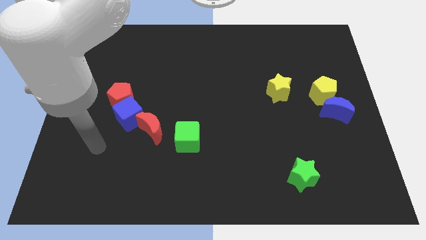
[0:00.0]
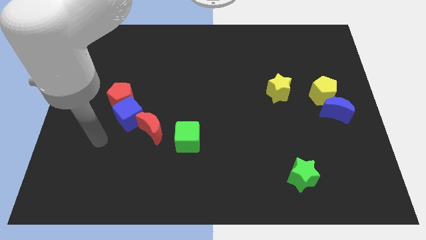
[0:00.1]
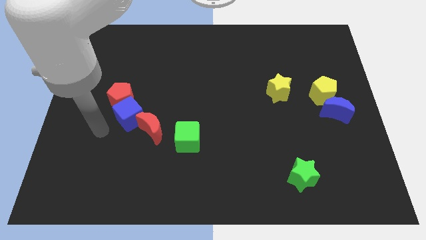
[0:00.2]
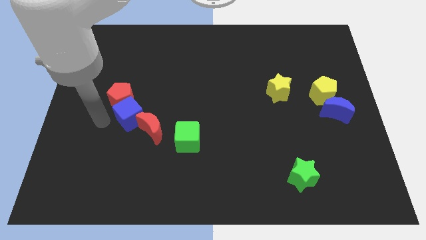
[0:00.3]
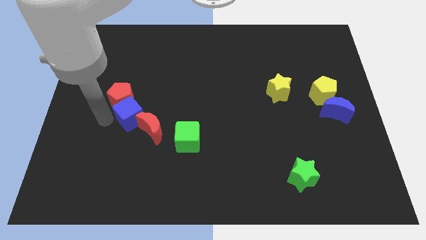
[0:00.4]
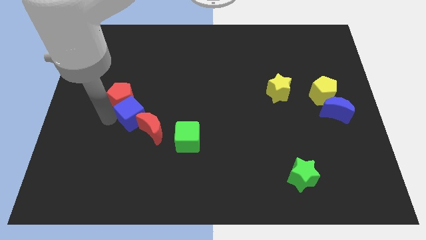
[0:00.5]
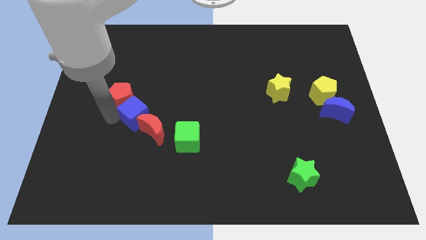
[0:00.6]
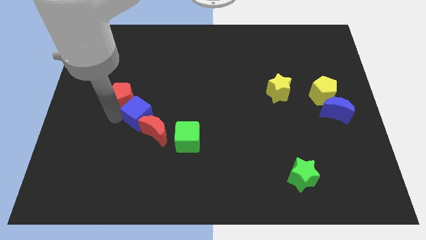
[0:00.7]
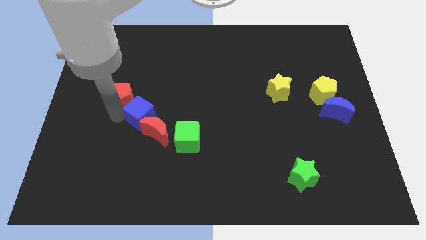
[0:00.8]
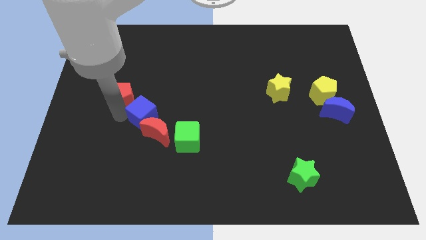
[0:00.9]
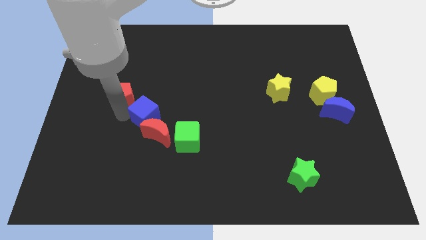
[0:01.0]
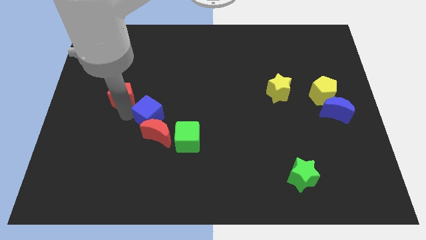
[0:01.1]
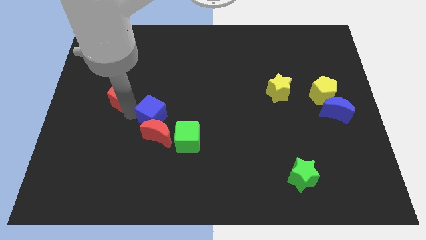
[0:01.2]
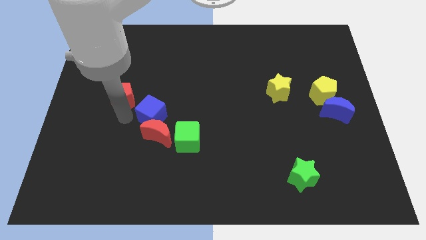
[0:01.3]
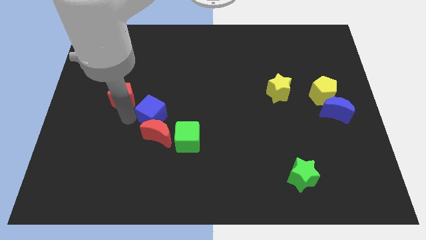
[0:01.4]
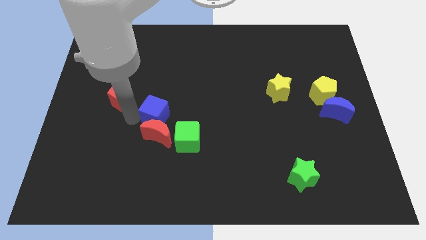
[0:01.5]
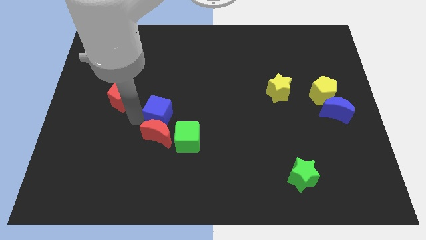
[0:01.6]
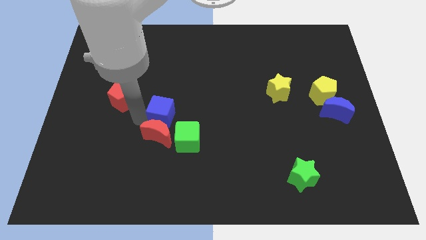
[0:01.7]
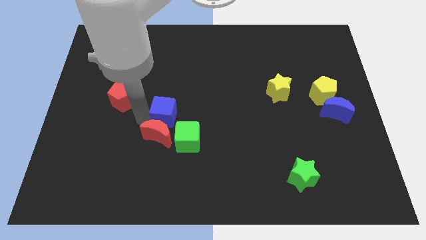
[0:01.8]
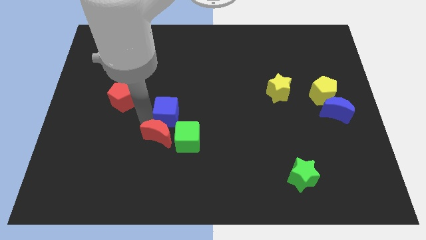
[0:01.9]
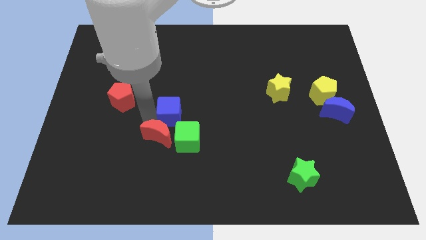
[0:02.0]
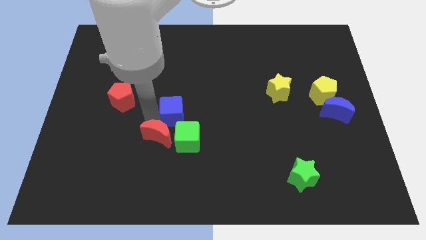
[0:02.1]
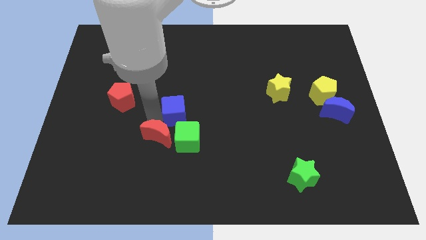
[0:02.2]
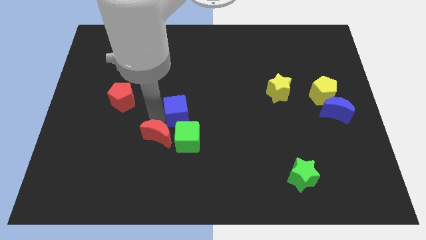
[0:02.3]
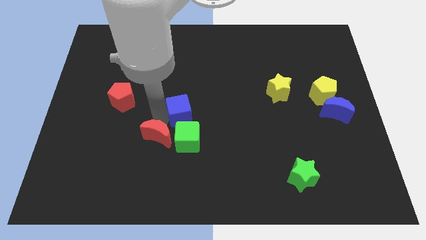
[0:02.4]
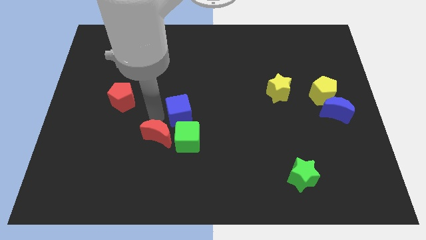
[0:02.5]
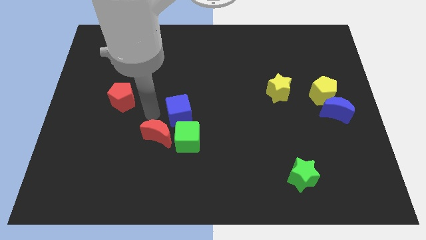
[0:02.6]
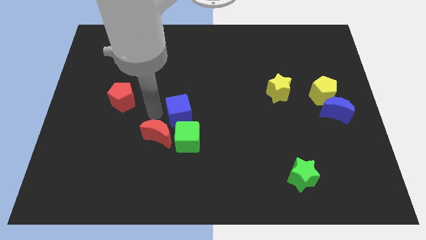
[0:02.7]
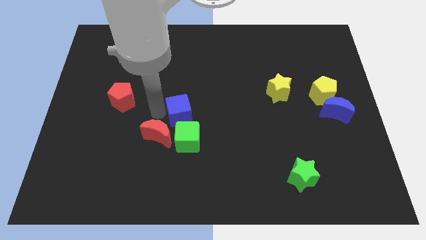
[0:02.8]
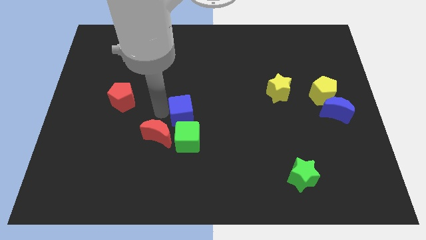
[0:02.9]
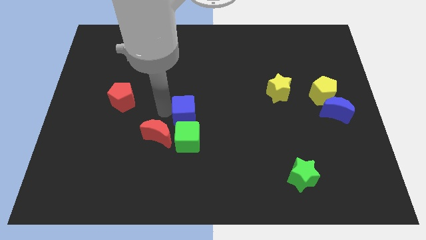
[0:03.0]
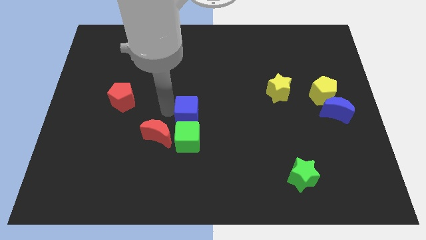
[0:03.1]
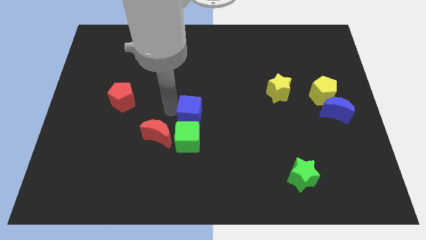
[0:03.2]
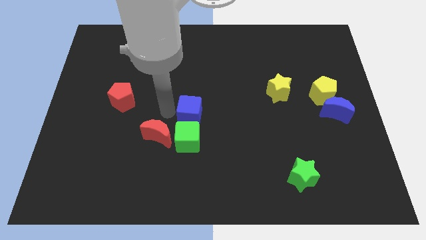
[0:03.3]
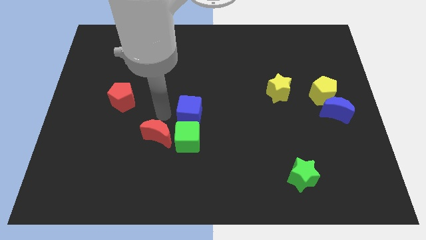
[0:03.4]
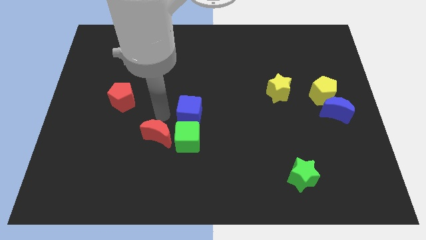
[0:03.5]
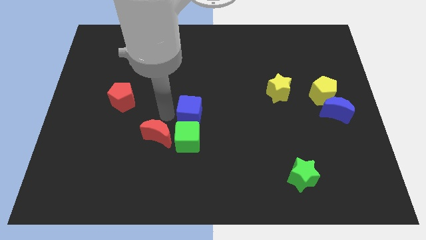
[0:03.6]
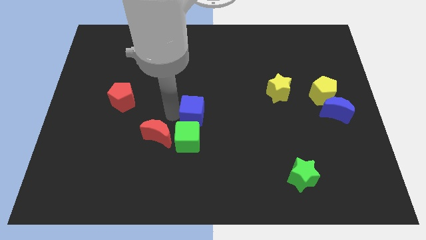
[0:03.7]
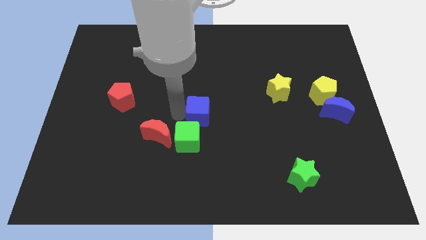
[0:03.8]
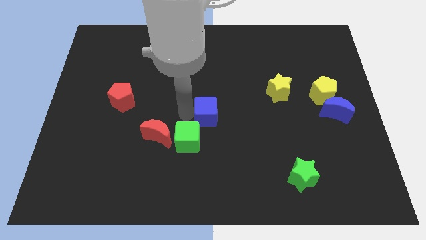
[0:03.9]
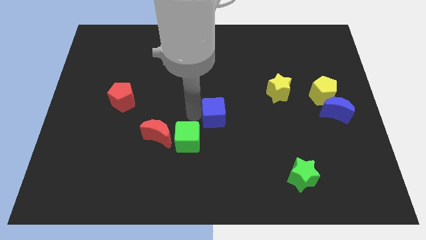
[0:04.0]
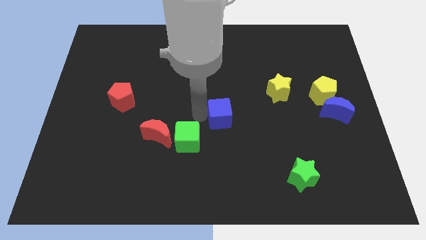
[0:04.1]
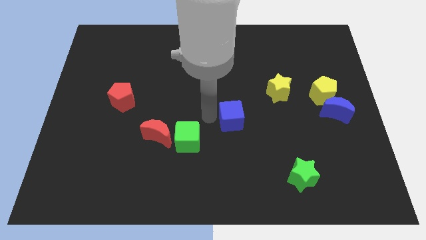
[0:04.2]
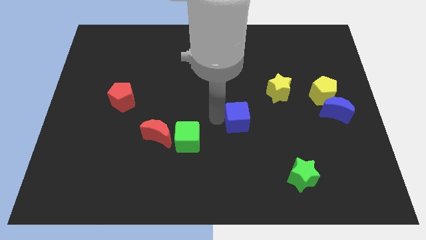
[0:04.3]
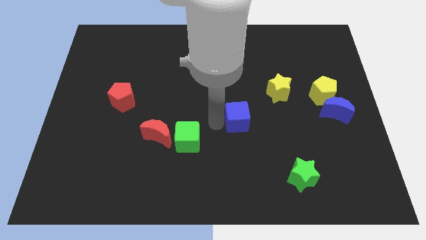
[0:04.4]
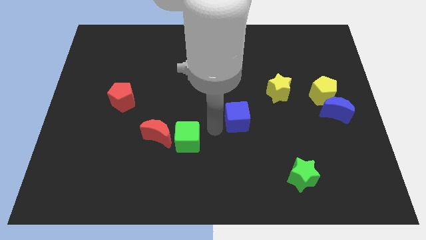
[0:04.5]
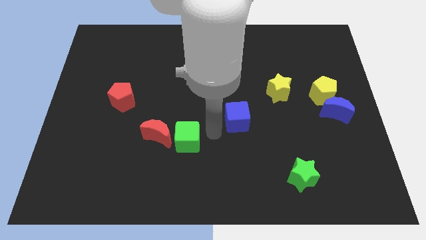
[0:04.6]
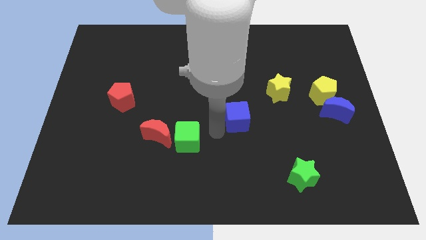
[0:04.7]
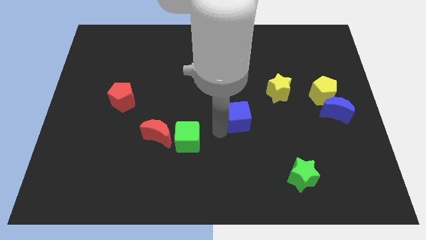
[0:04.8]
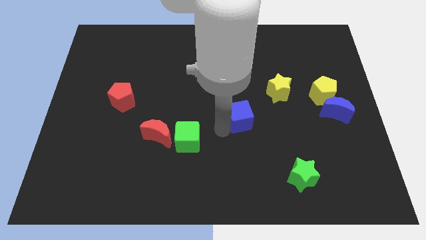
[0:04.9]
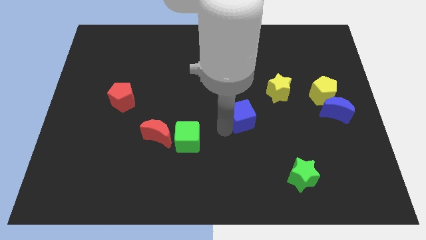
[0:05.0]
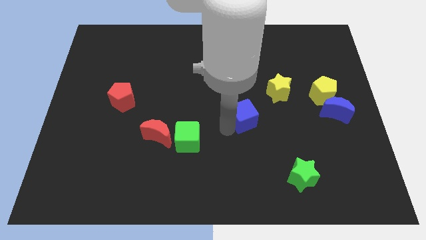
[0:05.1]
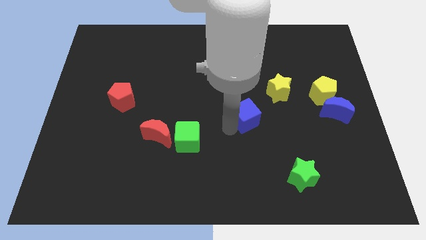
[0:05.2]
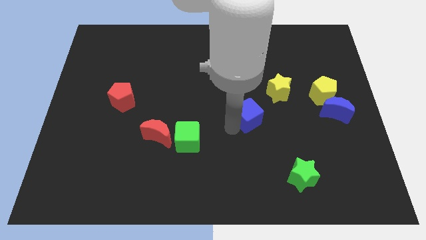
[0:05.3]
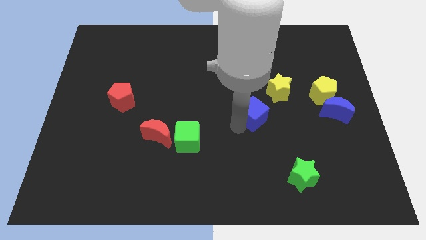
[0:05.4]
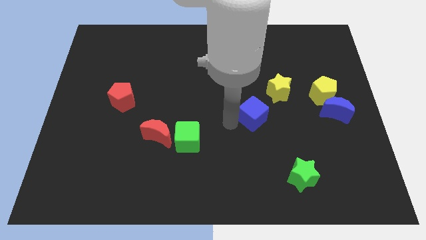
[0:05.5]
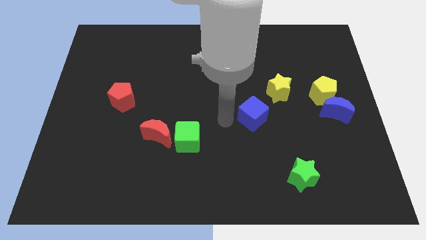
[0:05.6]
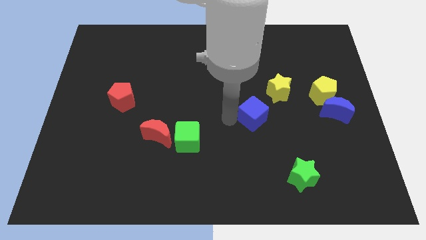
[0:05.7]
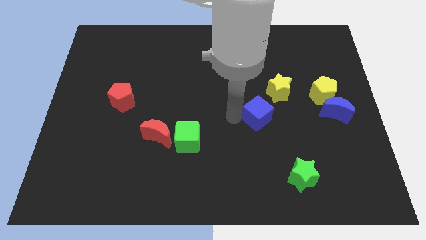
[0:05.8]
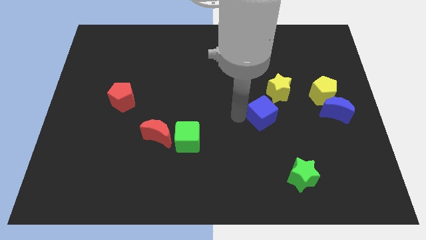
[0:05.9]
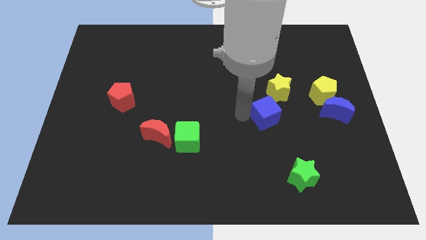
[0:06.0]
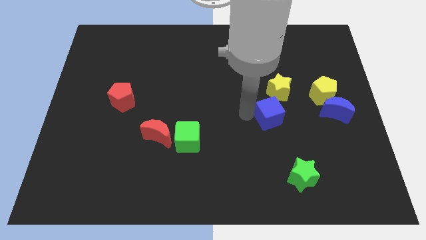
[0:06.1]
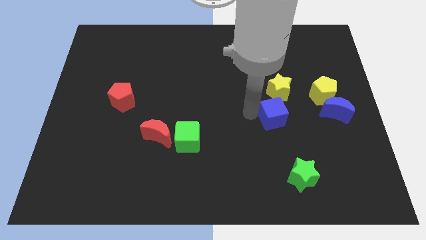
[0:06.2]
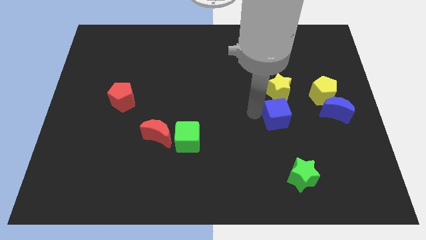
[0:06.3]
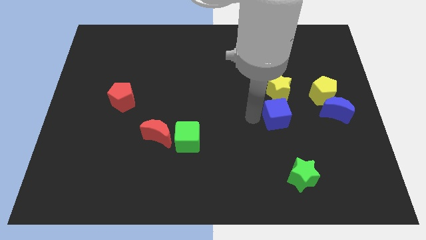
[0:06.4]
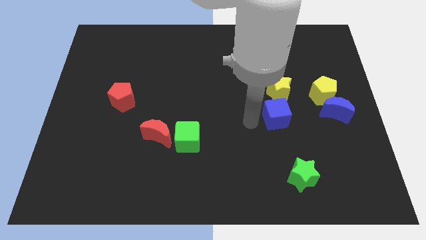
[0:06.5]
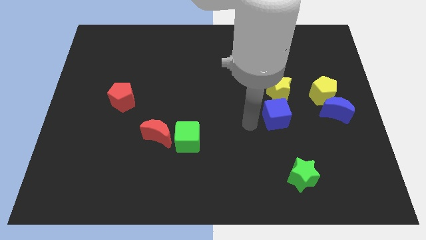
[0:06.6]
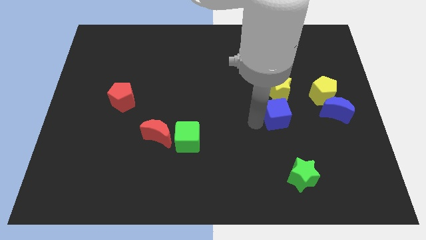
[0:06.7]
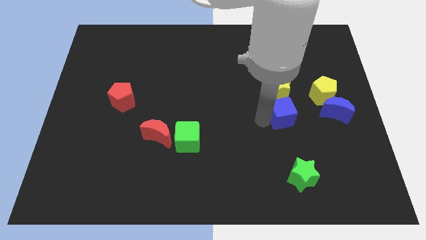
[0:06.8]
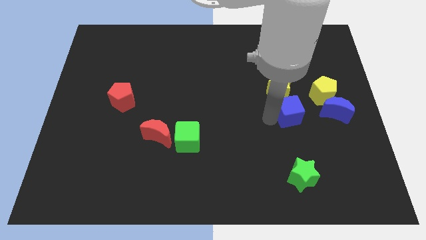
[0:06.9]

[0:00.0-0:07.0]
put the blue cube diagonally down and to the right of the yellow star

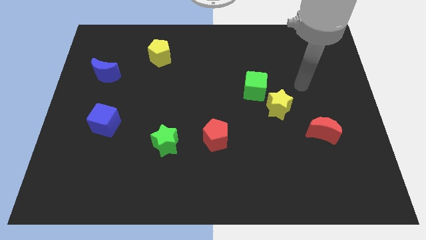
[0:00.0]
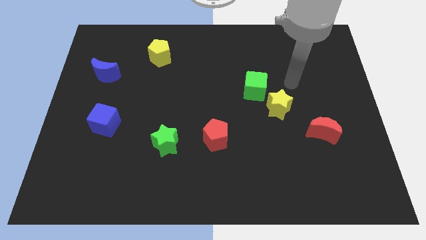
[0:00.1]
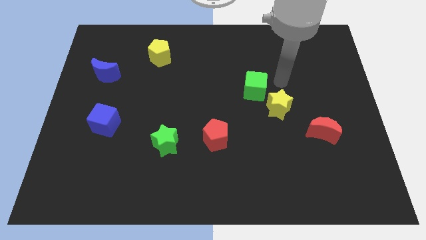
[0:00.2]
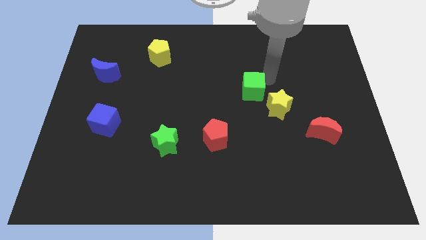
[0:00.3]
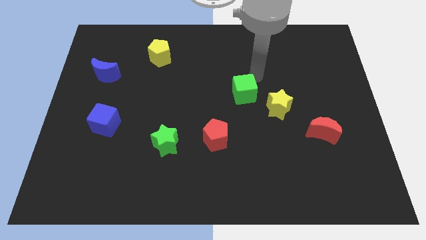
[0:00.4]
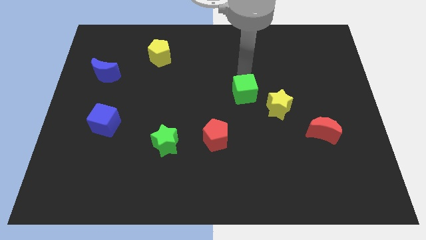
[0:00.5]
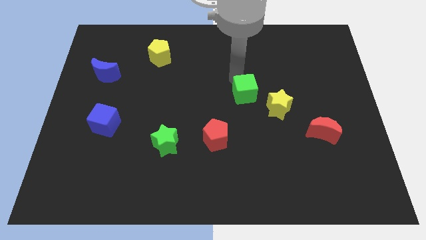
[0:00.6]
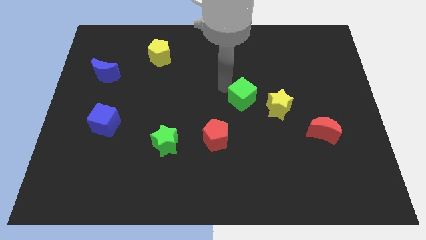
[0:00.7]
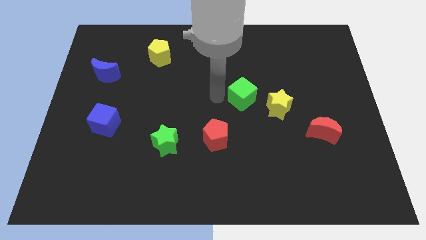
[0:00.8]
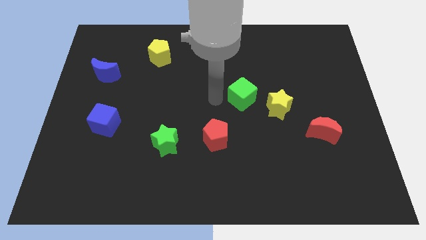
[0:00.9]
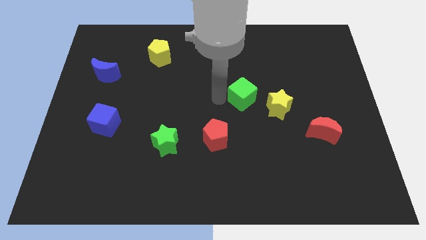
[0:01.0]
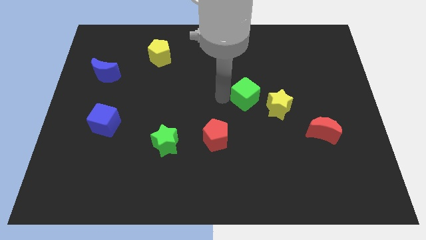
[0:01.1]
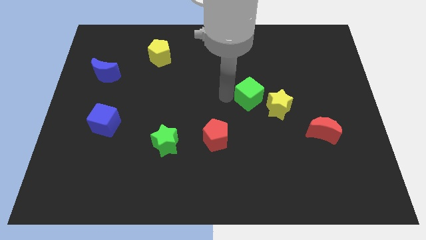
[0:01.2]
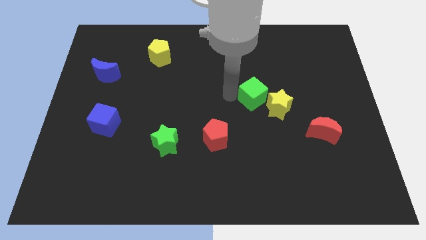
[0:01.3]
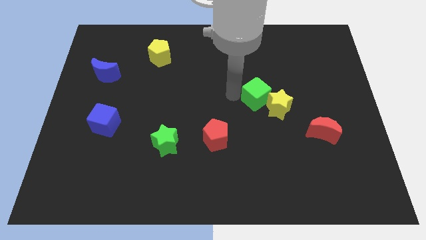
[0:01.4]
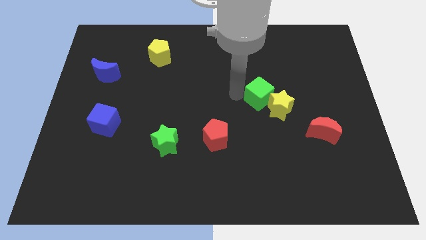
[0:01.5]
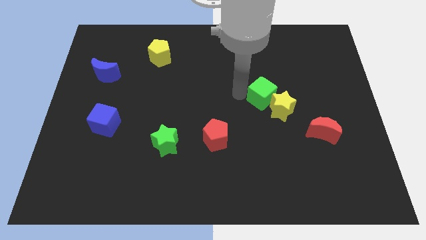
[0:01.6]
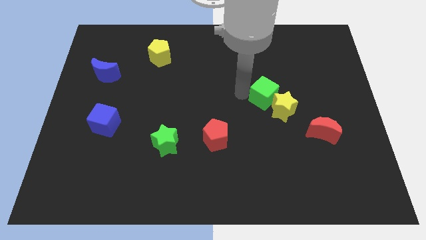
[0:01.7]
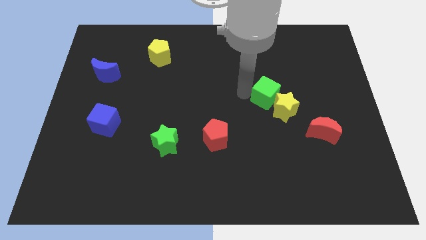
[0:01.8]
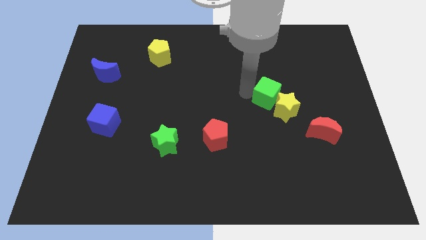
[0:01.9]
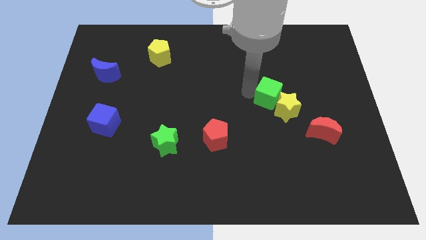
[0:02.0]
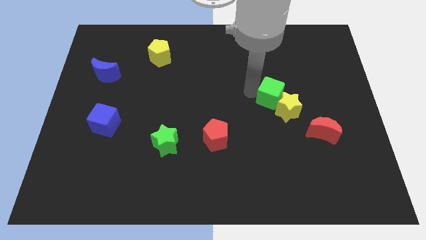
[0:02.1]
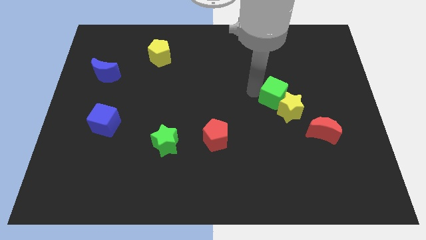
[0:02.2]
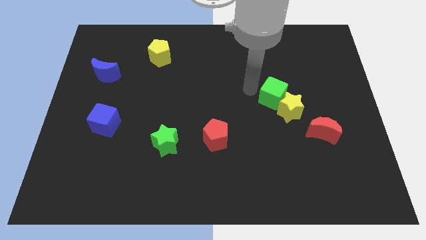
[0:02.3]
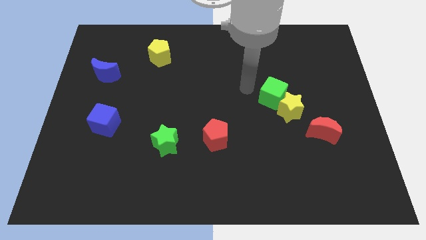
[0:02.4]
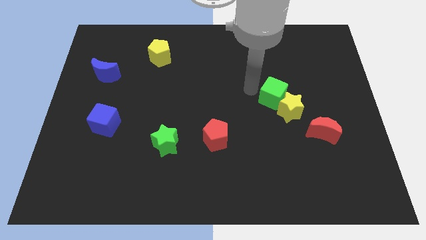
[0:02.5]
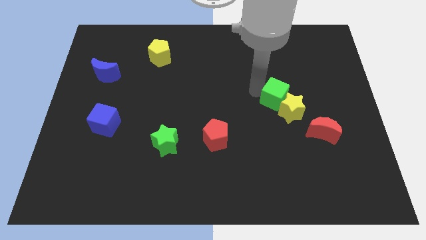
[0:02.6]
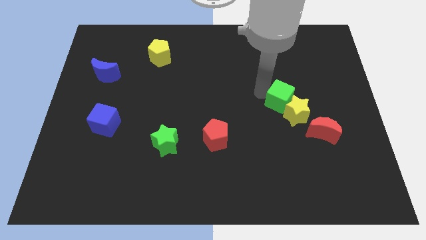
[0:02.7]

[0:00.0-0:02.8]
push the green cube to the top left side of the red moon
